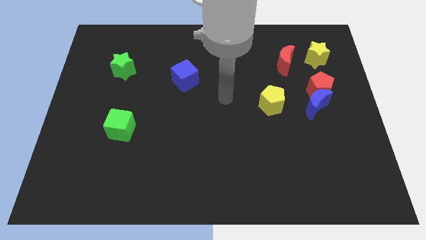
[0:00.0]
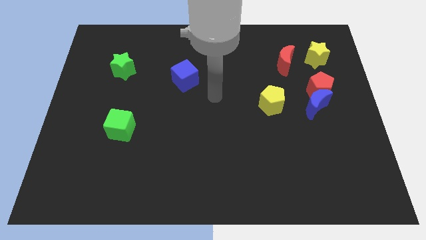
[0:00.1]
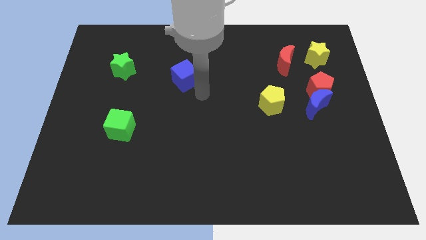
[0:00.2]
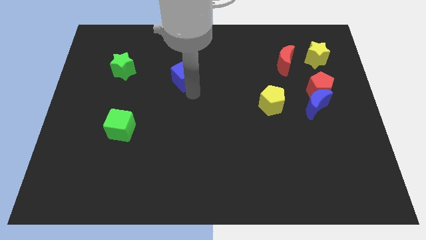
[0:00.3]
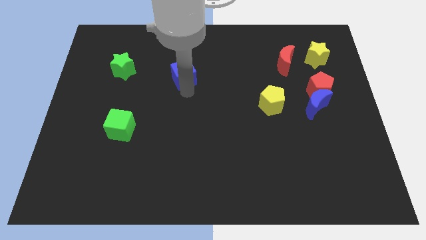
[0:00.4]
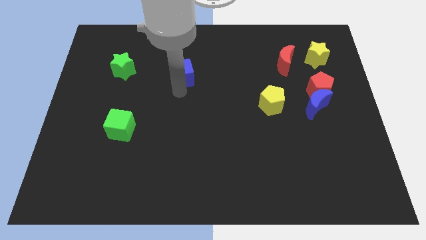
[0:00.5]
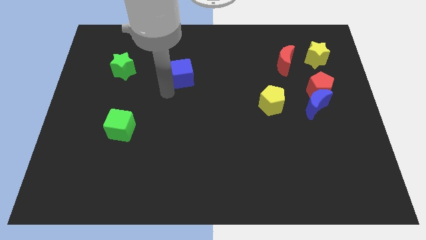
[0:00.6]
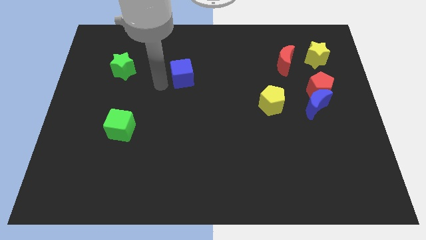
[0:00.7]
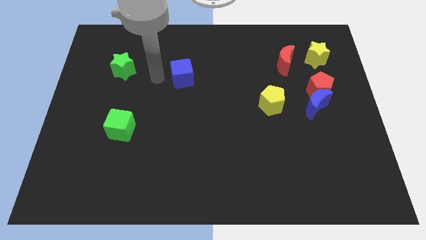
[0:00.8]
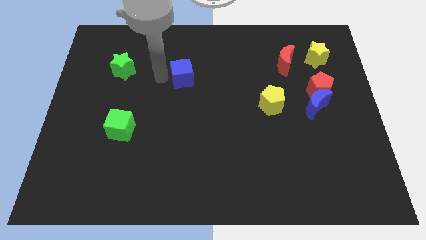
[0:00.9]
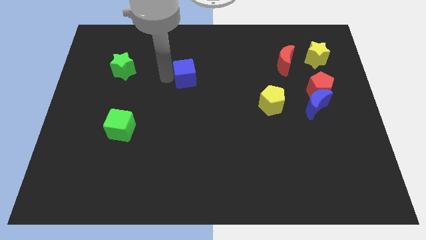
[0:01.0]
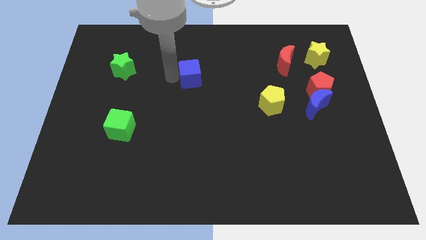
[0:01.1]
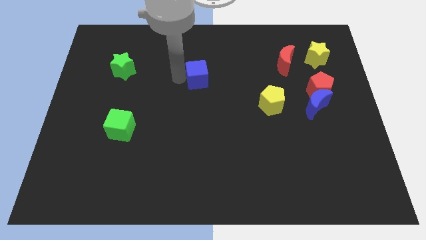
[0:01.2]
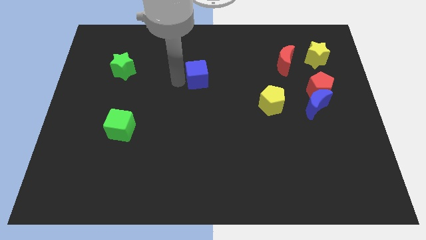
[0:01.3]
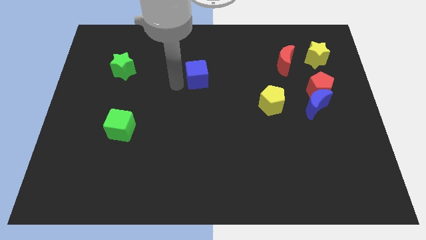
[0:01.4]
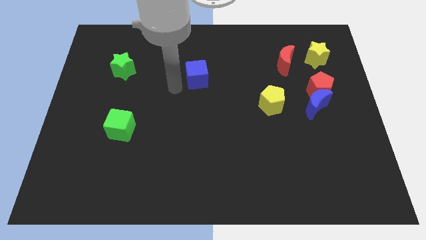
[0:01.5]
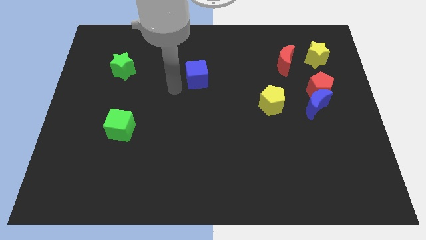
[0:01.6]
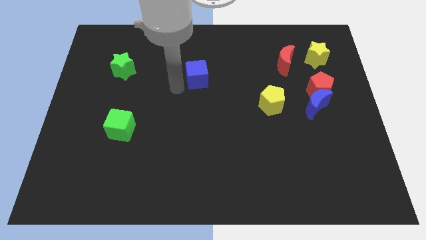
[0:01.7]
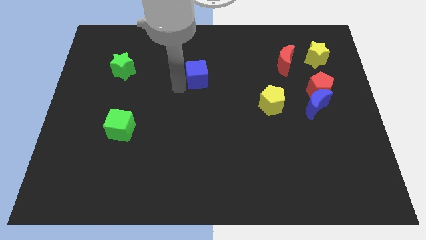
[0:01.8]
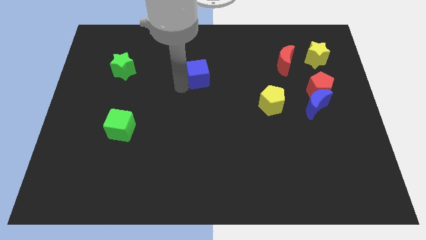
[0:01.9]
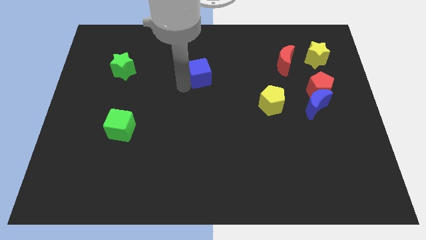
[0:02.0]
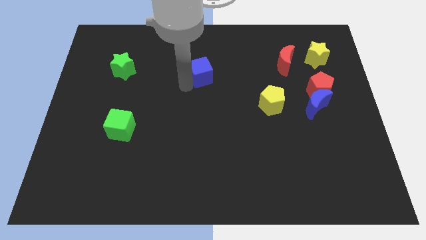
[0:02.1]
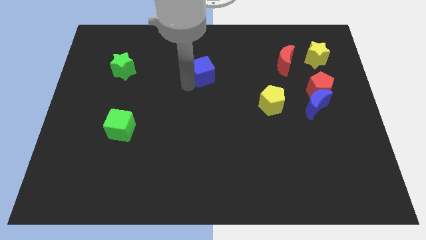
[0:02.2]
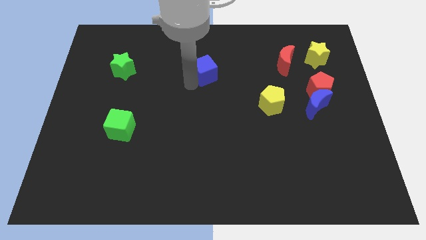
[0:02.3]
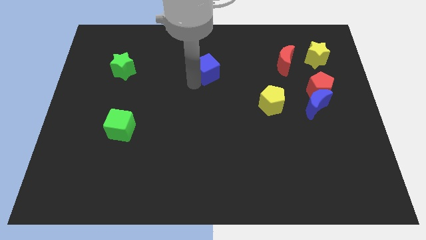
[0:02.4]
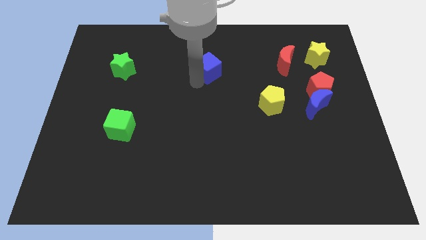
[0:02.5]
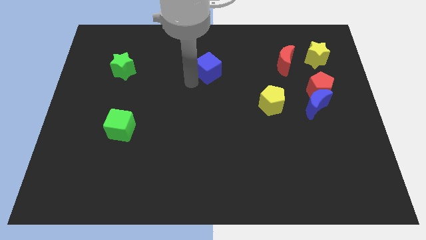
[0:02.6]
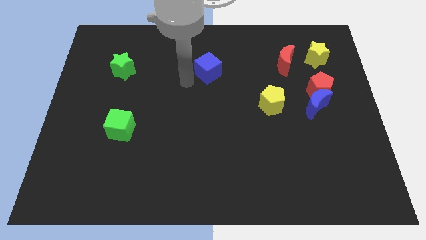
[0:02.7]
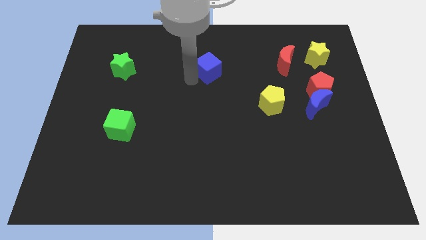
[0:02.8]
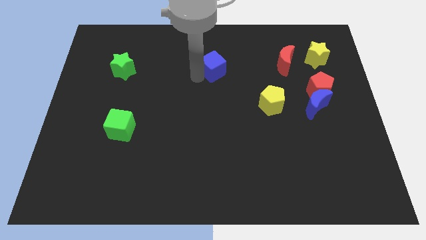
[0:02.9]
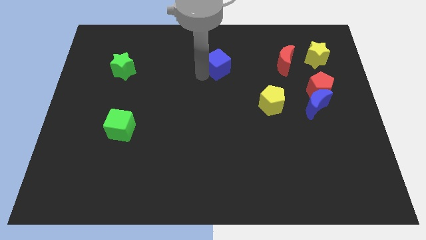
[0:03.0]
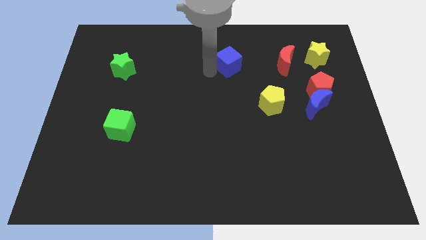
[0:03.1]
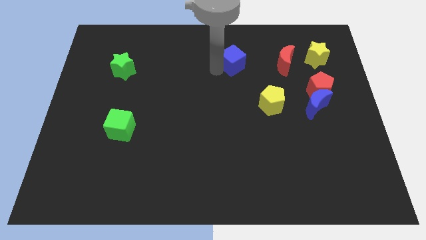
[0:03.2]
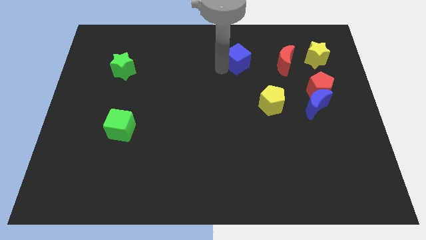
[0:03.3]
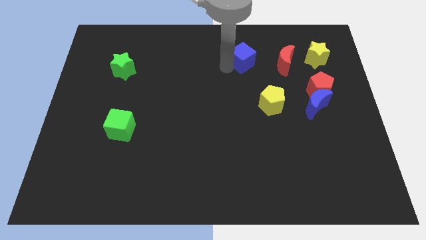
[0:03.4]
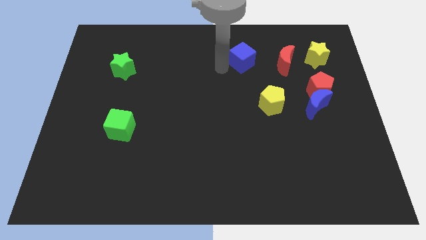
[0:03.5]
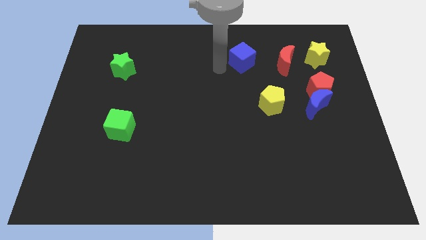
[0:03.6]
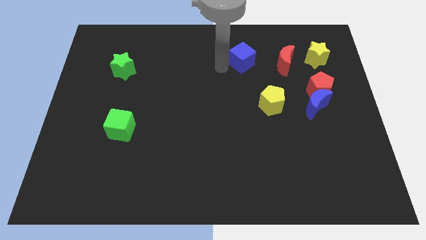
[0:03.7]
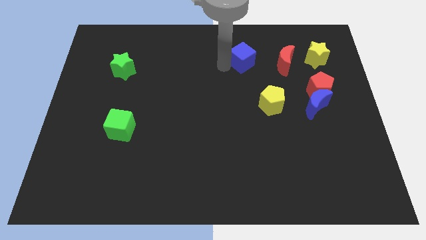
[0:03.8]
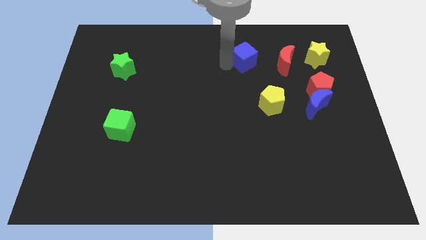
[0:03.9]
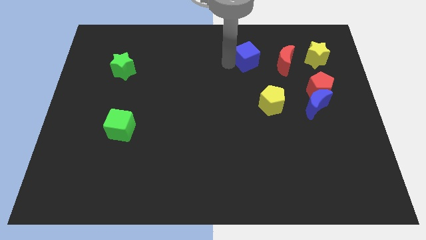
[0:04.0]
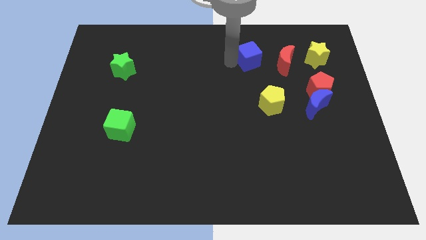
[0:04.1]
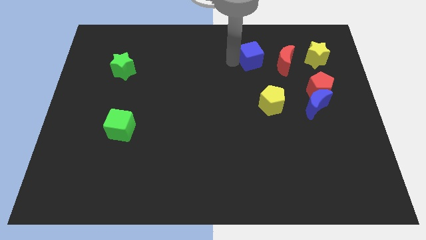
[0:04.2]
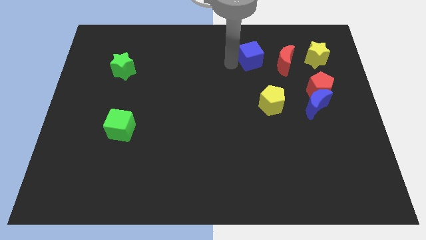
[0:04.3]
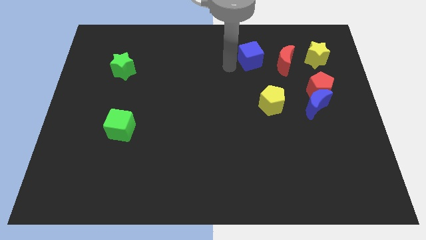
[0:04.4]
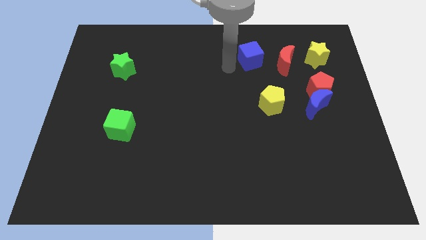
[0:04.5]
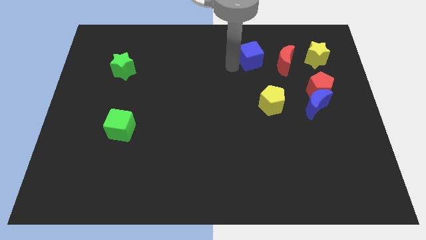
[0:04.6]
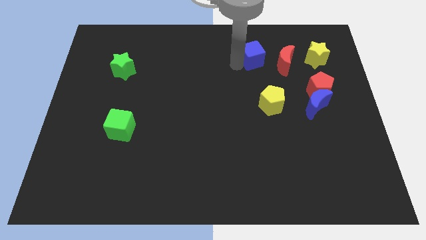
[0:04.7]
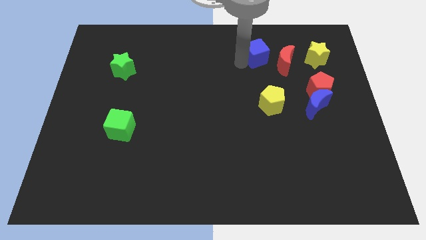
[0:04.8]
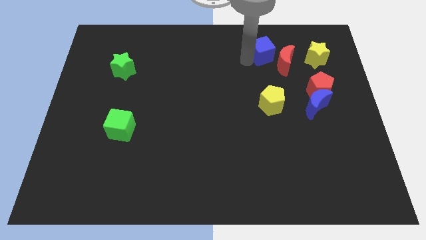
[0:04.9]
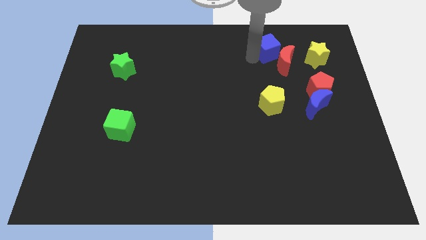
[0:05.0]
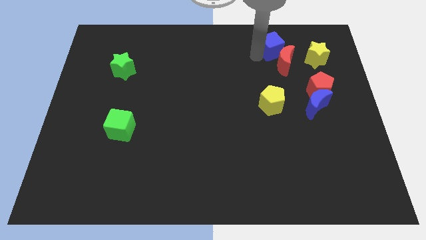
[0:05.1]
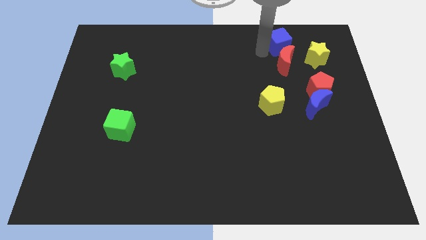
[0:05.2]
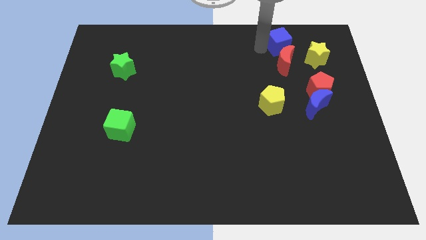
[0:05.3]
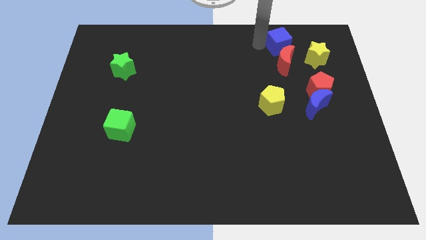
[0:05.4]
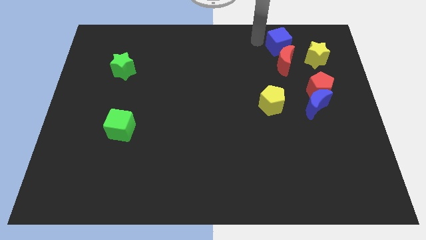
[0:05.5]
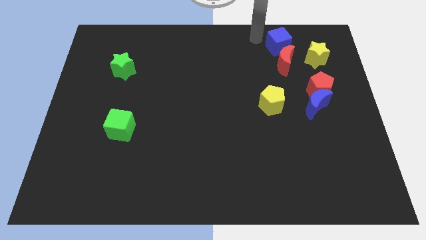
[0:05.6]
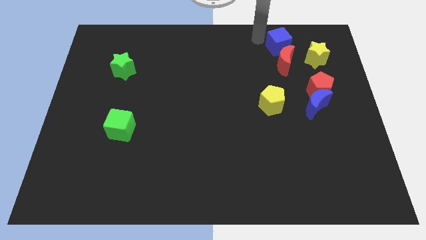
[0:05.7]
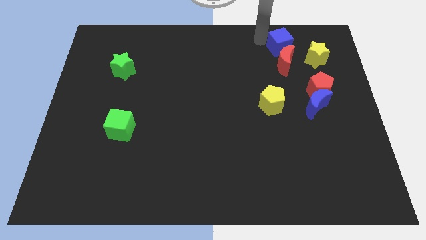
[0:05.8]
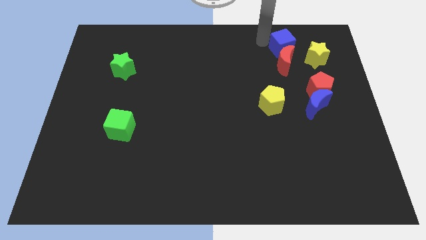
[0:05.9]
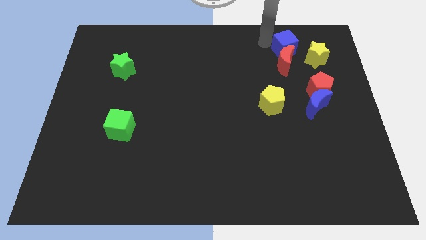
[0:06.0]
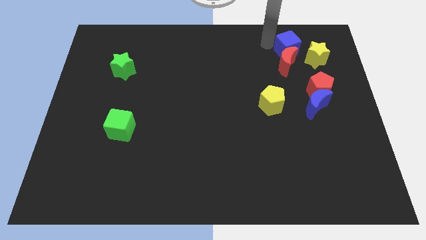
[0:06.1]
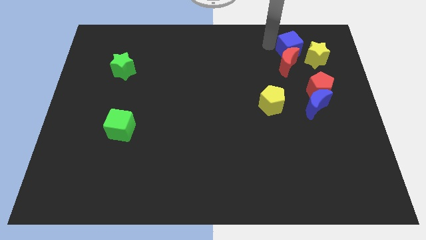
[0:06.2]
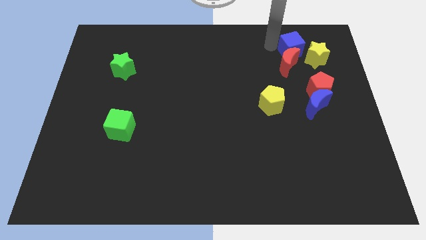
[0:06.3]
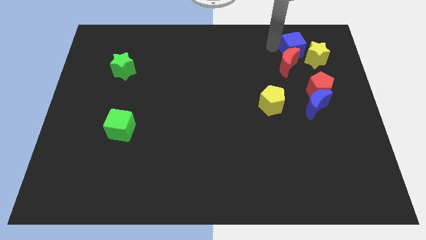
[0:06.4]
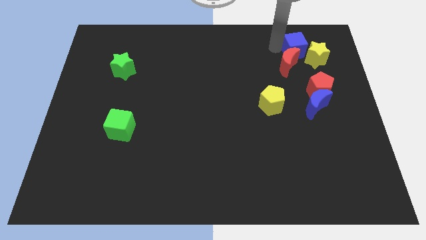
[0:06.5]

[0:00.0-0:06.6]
move the blue cube towards the yellow star

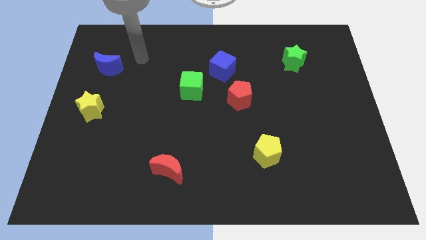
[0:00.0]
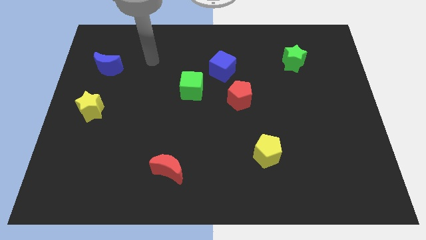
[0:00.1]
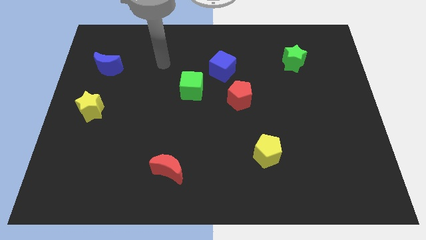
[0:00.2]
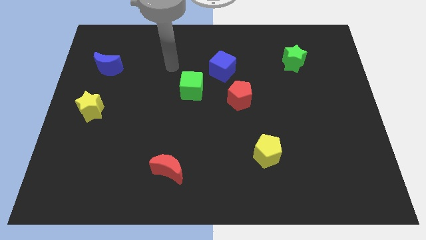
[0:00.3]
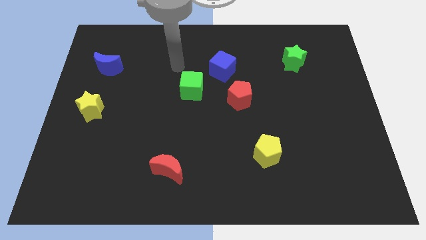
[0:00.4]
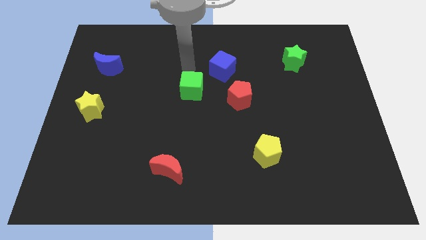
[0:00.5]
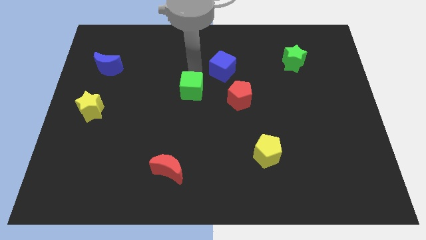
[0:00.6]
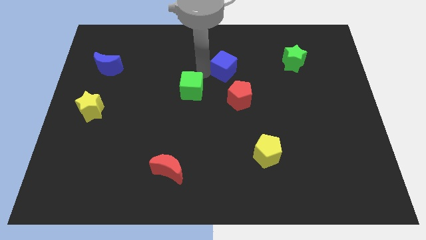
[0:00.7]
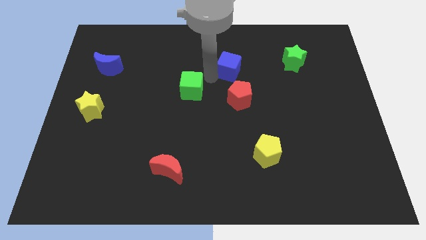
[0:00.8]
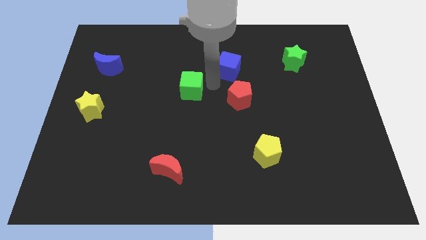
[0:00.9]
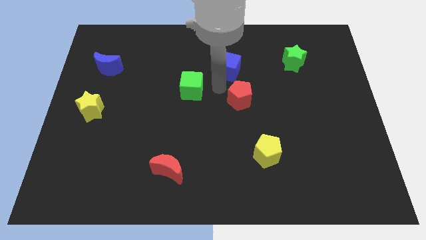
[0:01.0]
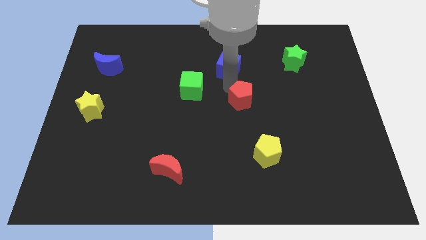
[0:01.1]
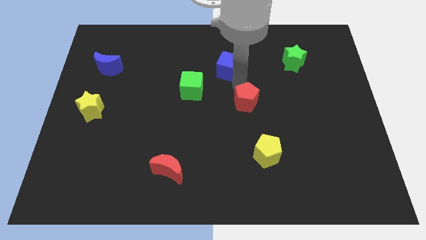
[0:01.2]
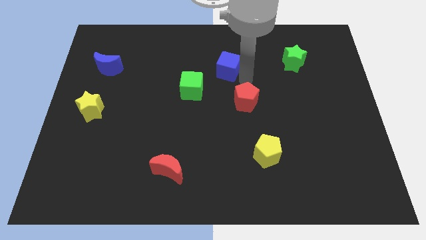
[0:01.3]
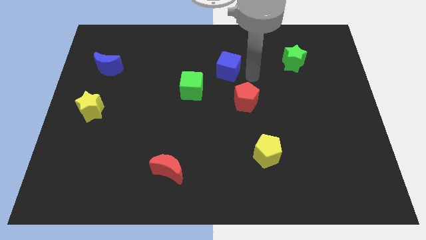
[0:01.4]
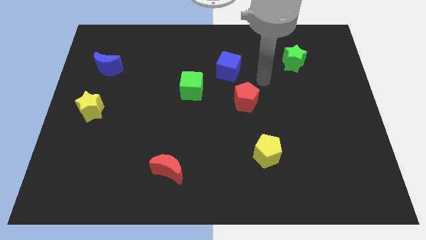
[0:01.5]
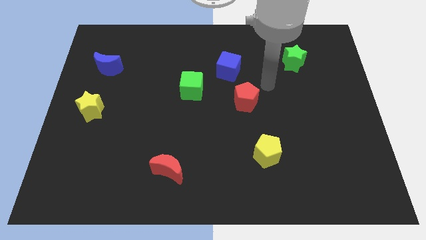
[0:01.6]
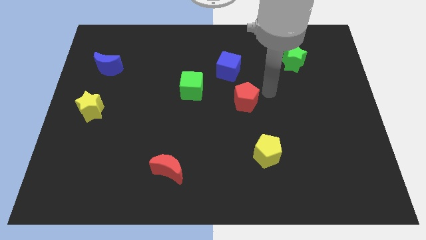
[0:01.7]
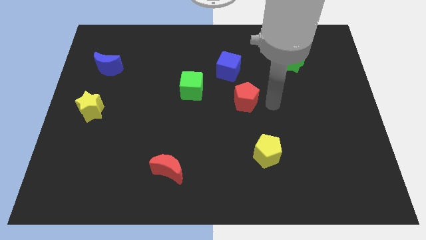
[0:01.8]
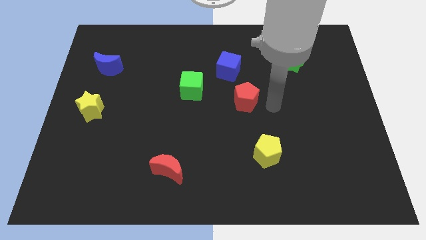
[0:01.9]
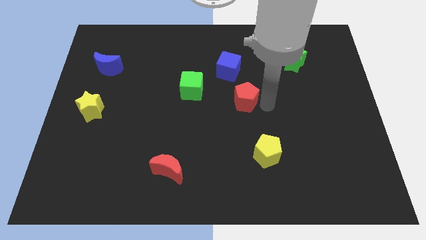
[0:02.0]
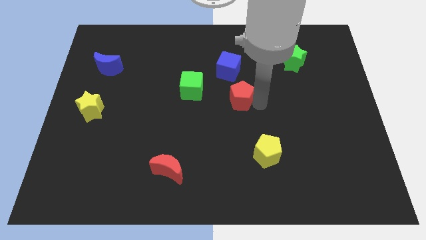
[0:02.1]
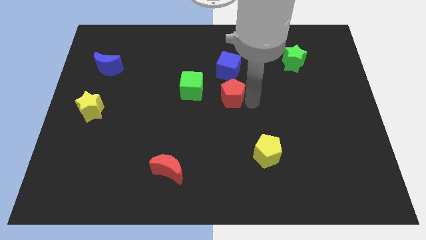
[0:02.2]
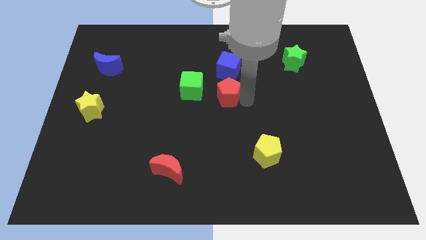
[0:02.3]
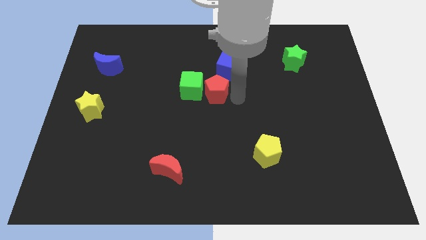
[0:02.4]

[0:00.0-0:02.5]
put the red pentagon towards the green cube
